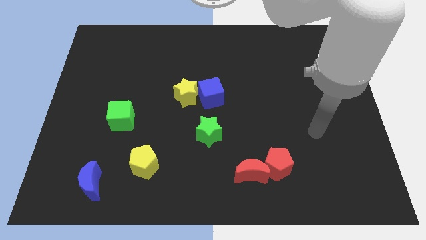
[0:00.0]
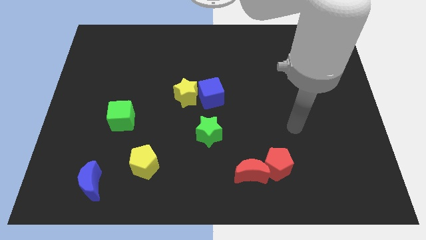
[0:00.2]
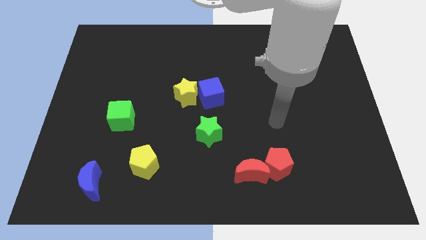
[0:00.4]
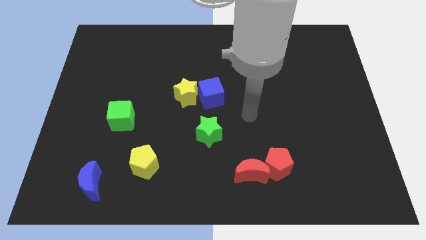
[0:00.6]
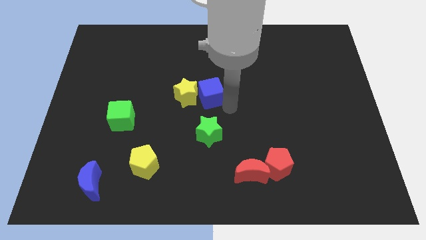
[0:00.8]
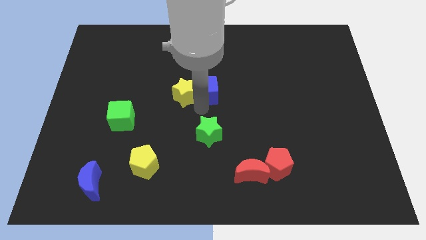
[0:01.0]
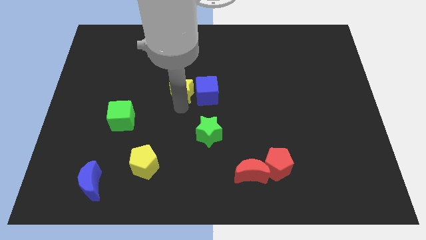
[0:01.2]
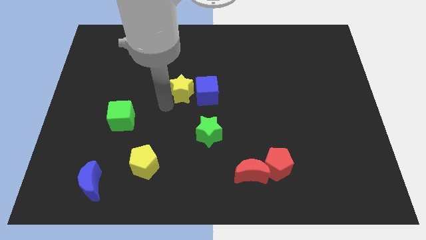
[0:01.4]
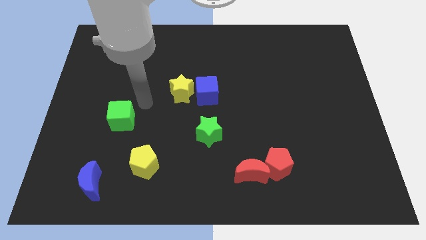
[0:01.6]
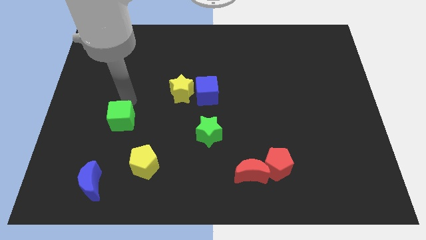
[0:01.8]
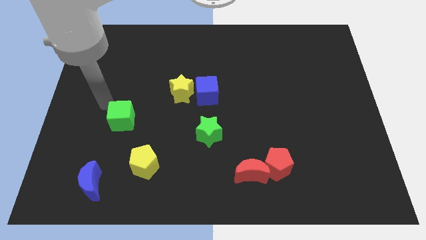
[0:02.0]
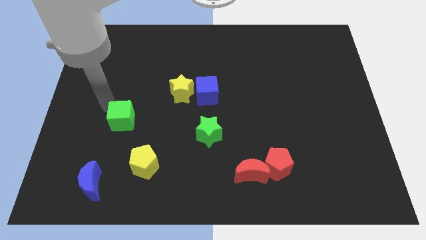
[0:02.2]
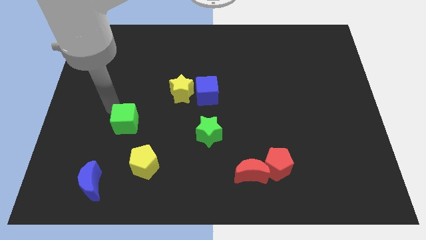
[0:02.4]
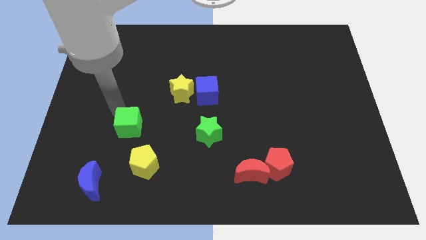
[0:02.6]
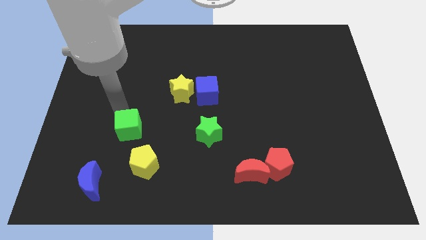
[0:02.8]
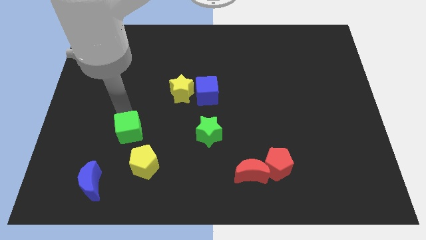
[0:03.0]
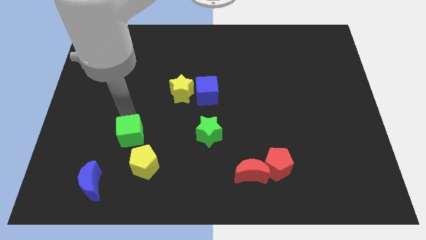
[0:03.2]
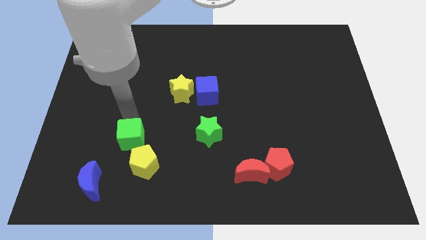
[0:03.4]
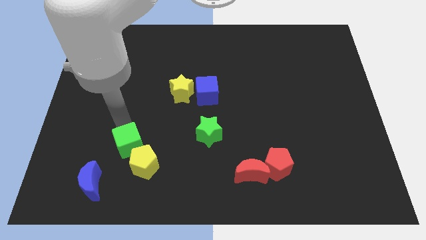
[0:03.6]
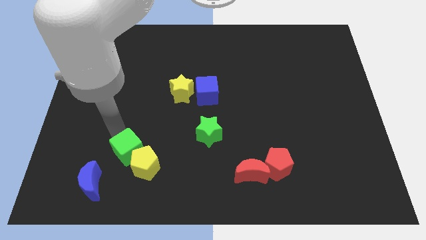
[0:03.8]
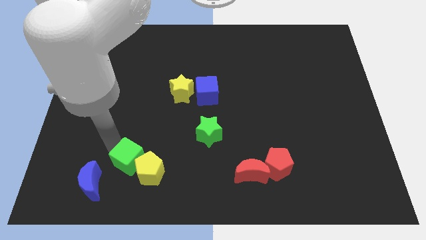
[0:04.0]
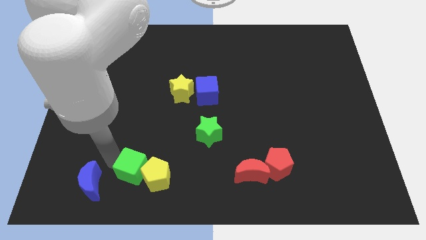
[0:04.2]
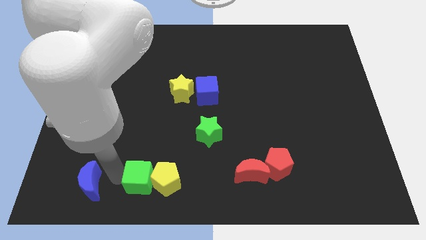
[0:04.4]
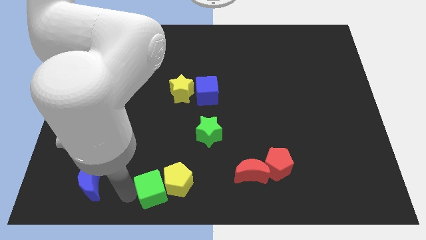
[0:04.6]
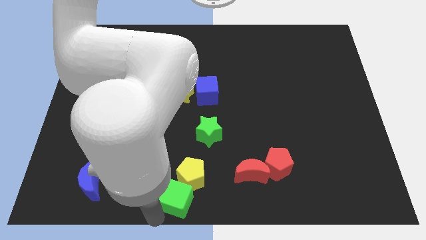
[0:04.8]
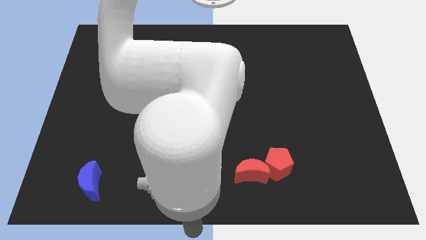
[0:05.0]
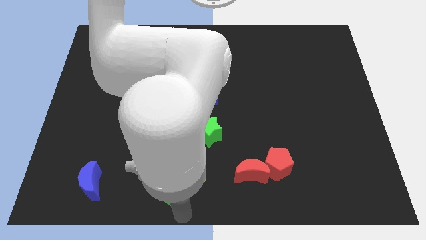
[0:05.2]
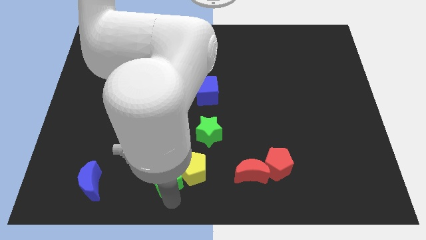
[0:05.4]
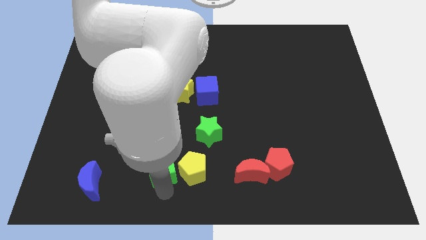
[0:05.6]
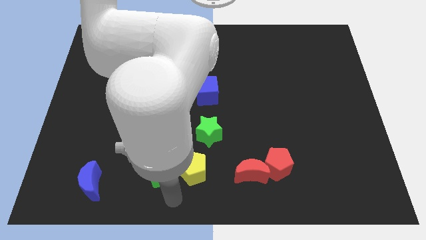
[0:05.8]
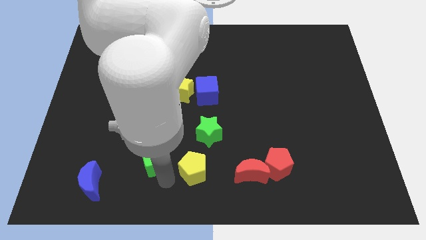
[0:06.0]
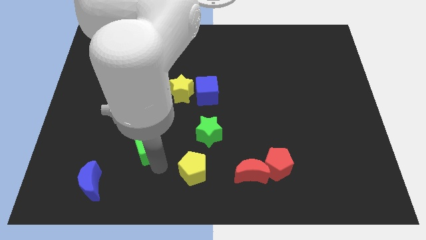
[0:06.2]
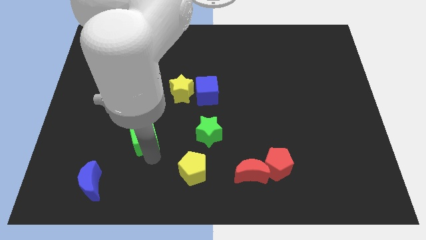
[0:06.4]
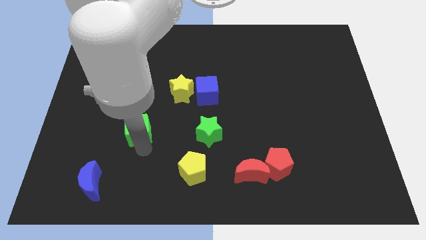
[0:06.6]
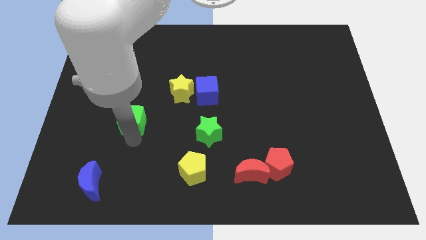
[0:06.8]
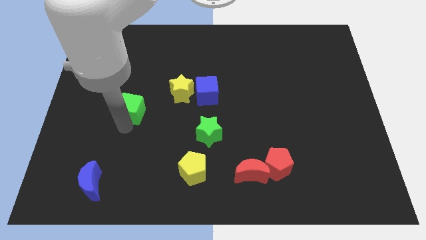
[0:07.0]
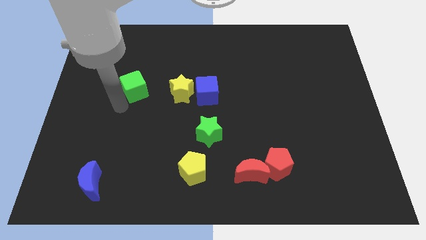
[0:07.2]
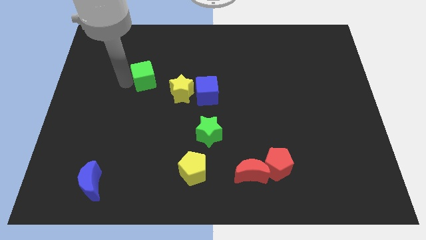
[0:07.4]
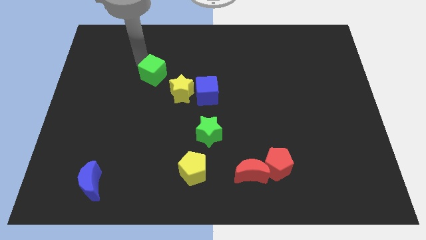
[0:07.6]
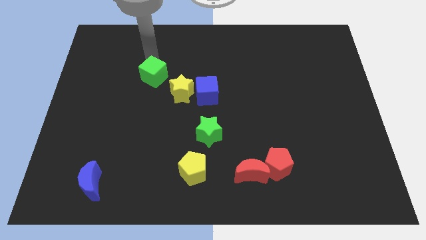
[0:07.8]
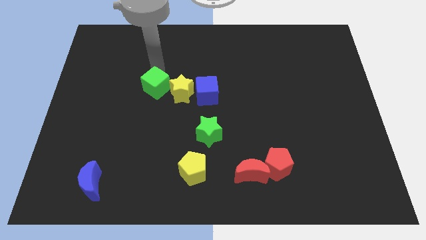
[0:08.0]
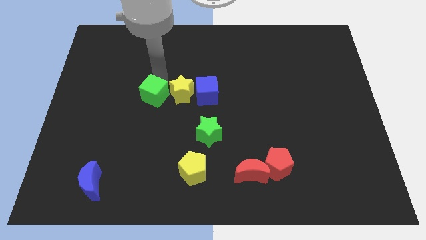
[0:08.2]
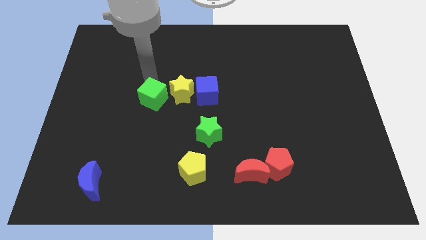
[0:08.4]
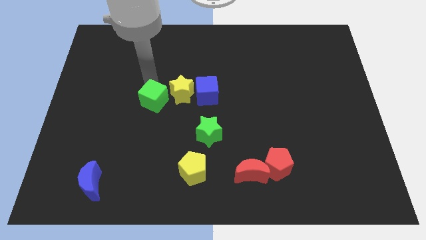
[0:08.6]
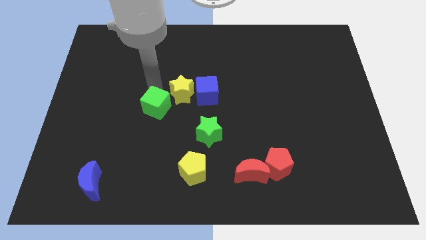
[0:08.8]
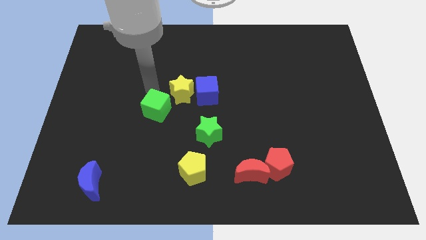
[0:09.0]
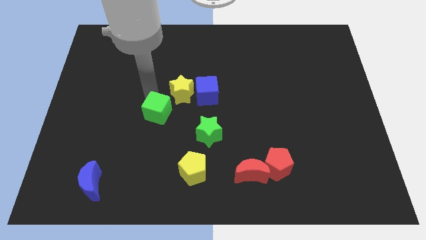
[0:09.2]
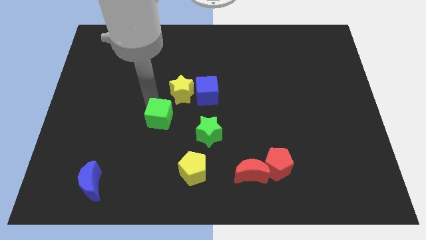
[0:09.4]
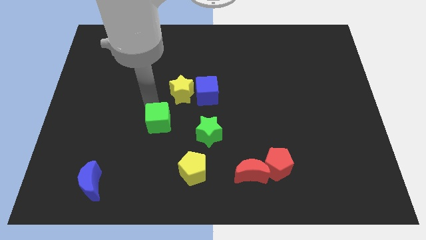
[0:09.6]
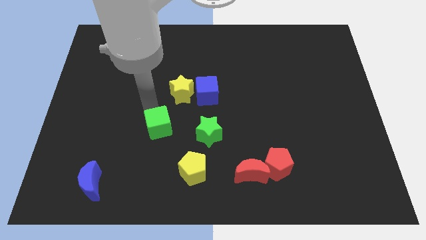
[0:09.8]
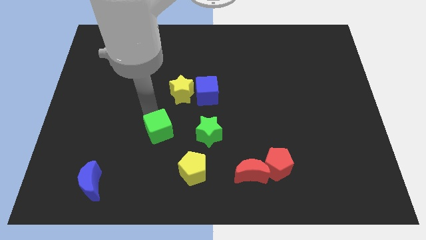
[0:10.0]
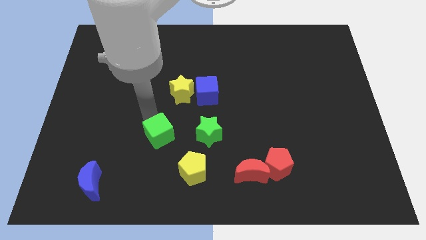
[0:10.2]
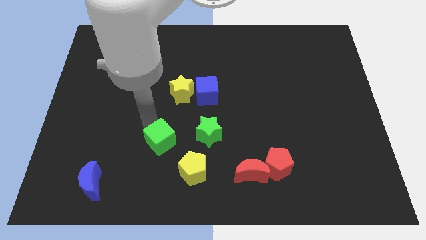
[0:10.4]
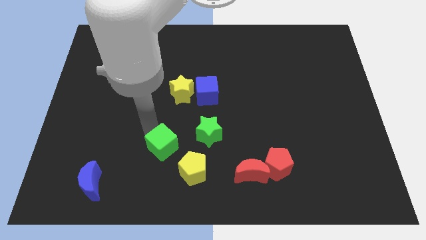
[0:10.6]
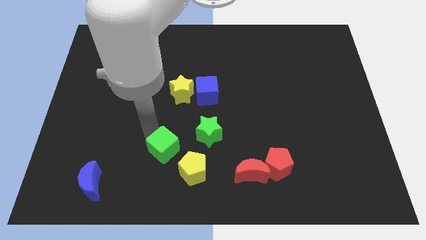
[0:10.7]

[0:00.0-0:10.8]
move the green cube to the bottom left of the green star

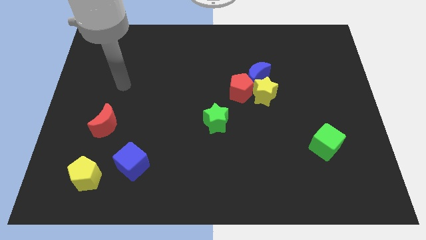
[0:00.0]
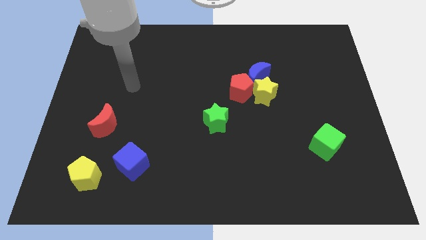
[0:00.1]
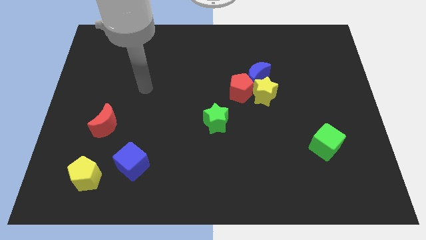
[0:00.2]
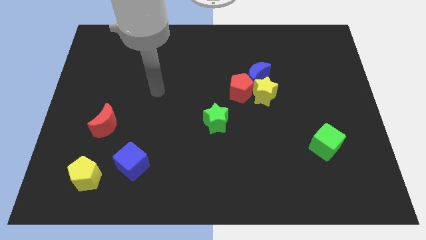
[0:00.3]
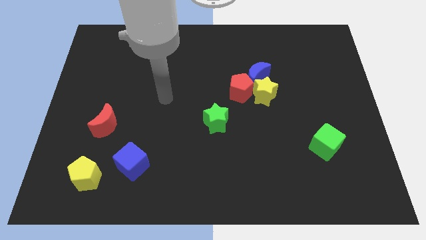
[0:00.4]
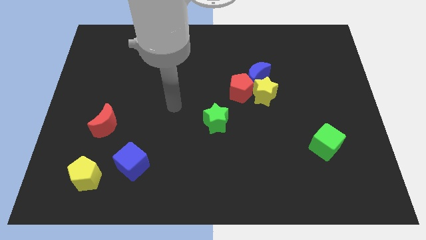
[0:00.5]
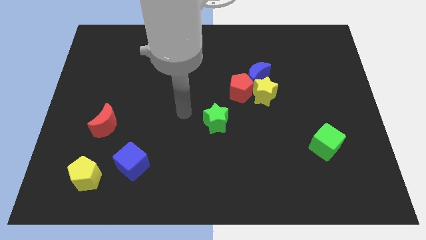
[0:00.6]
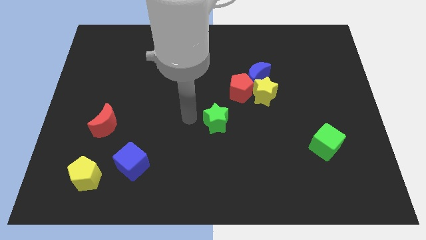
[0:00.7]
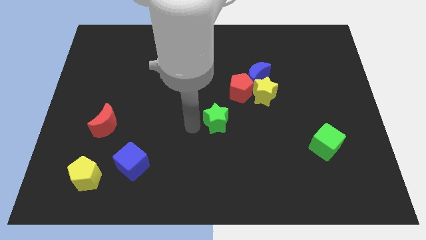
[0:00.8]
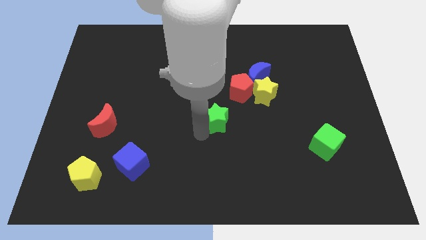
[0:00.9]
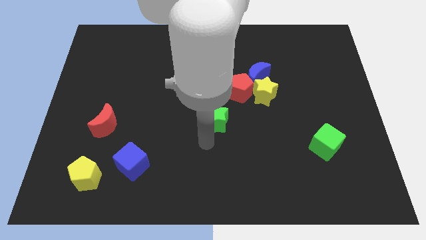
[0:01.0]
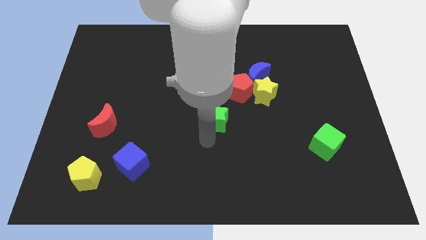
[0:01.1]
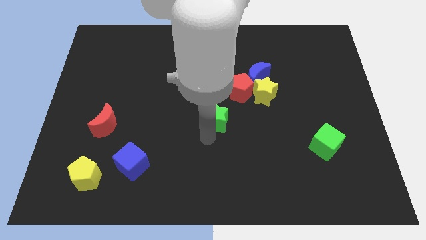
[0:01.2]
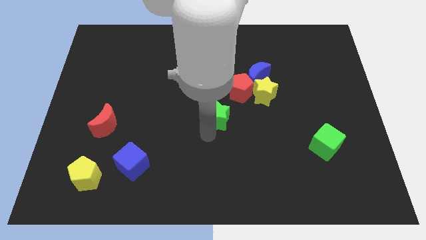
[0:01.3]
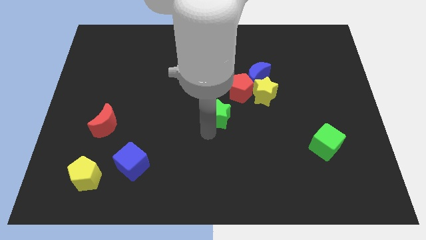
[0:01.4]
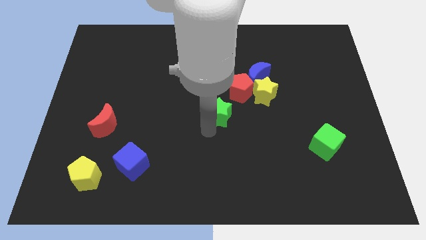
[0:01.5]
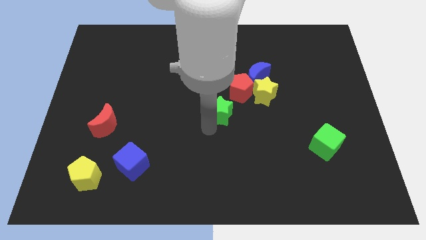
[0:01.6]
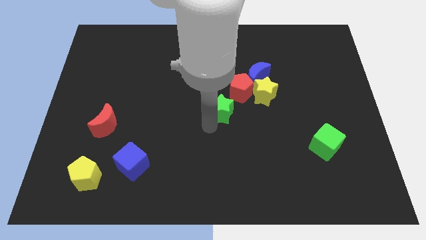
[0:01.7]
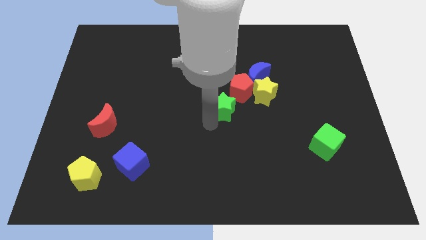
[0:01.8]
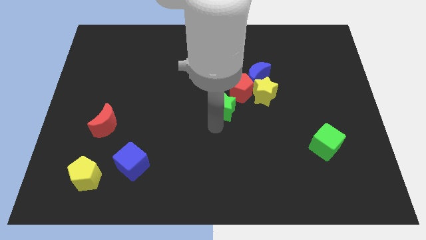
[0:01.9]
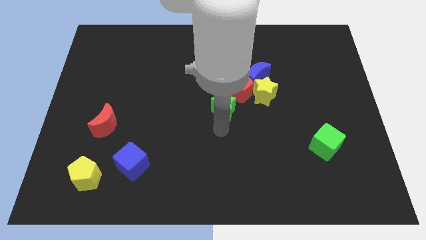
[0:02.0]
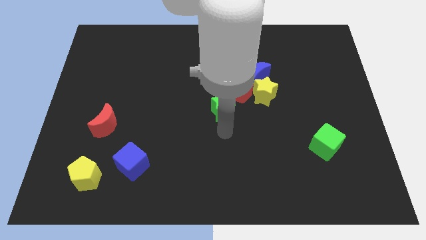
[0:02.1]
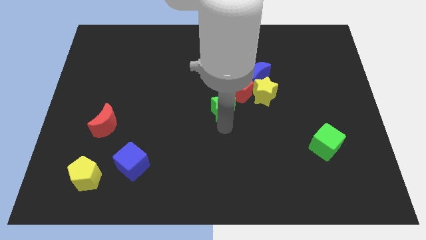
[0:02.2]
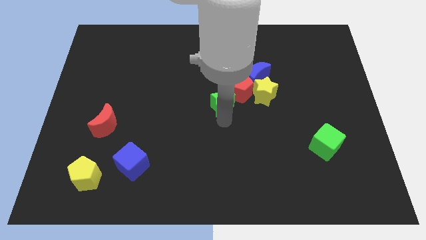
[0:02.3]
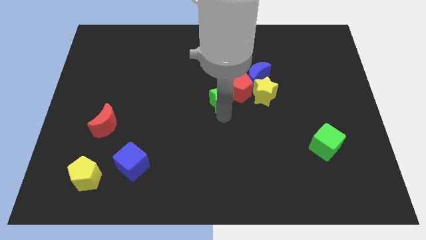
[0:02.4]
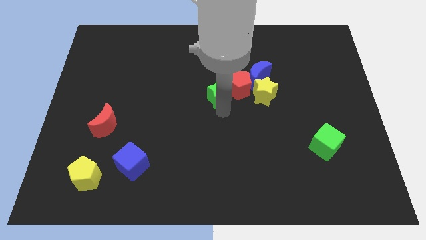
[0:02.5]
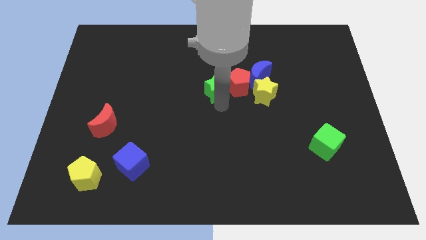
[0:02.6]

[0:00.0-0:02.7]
slide the green star to the left of the blue moon
